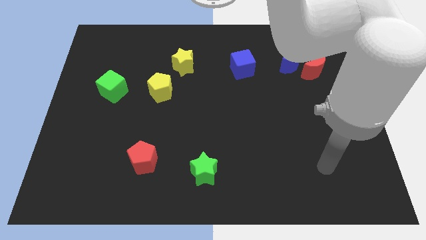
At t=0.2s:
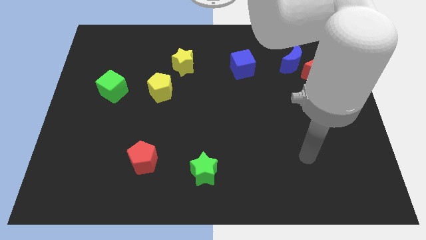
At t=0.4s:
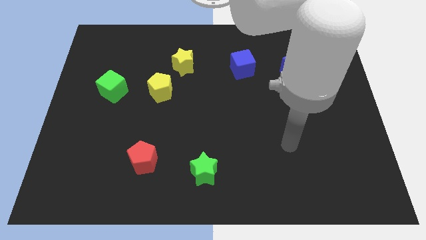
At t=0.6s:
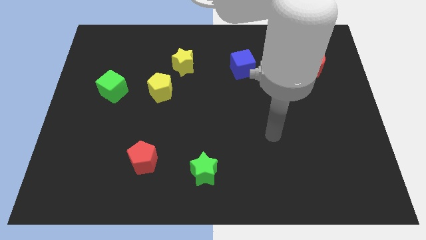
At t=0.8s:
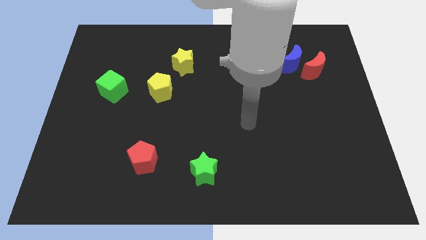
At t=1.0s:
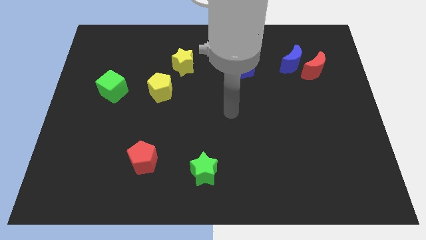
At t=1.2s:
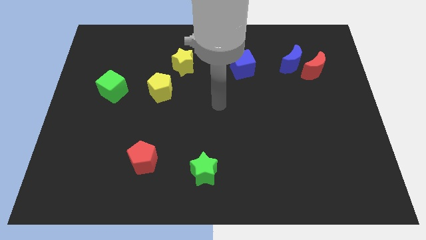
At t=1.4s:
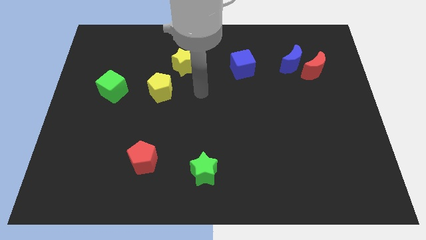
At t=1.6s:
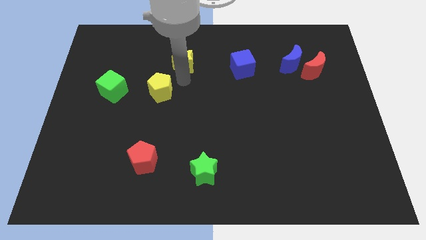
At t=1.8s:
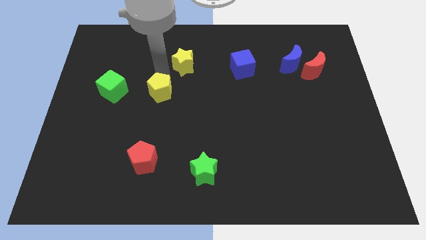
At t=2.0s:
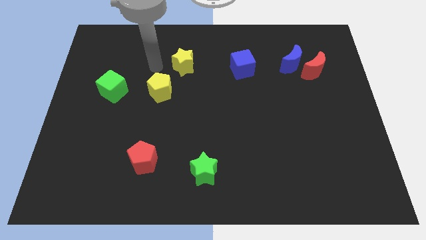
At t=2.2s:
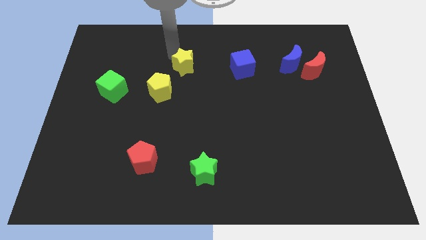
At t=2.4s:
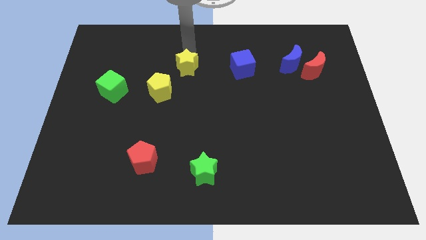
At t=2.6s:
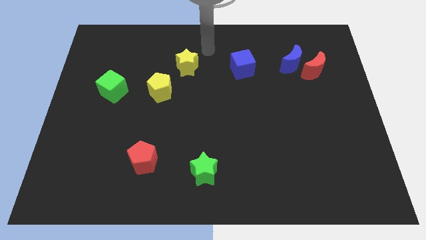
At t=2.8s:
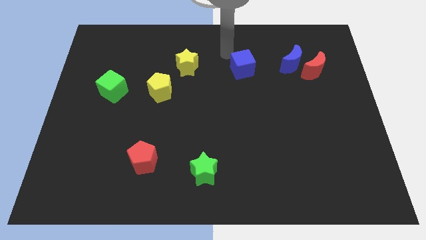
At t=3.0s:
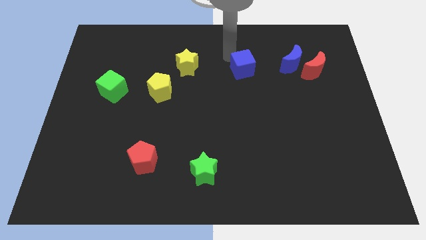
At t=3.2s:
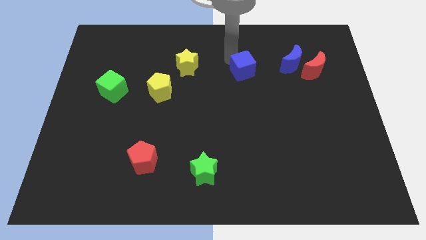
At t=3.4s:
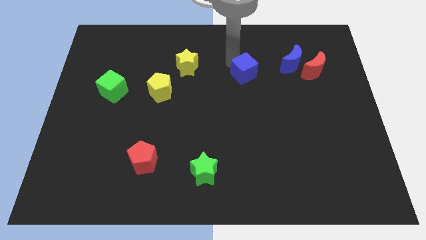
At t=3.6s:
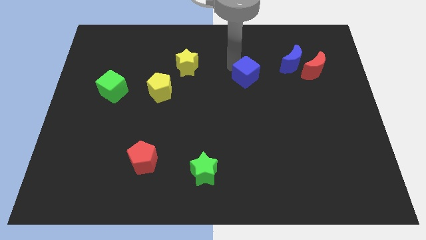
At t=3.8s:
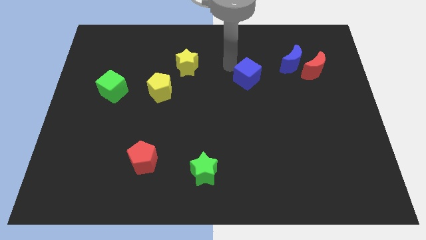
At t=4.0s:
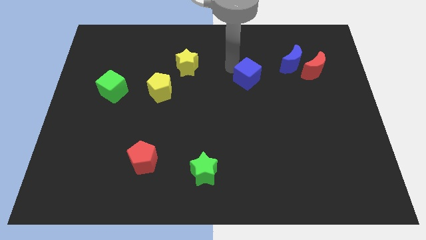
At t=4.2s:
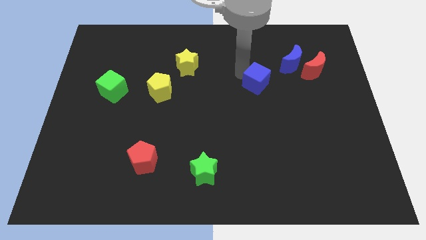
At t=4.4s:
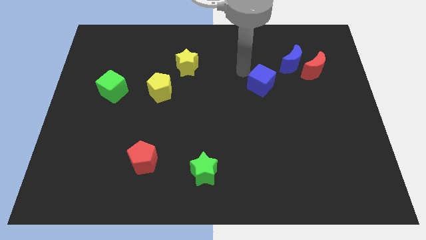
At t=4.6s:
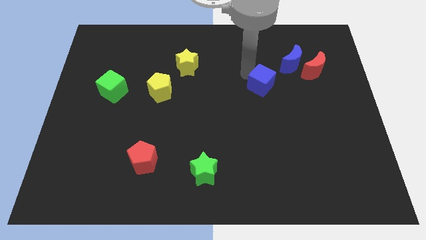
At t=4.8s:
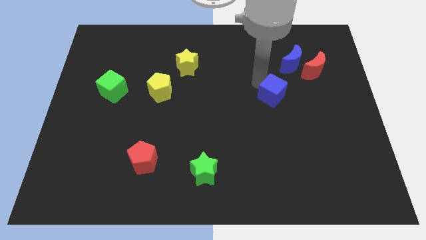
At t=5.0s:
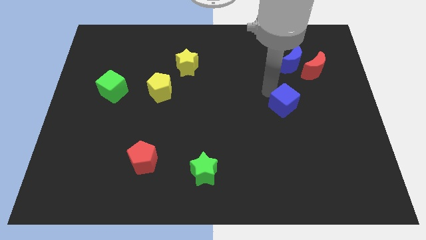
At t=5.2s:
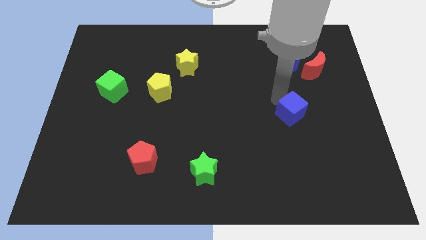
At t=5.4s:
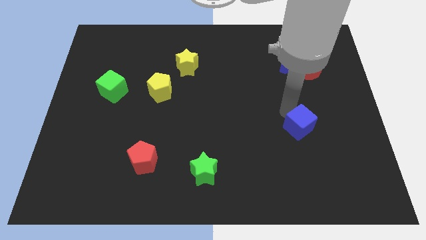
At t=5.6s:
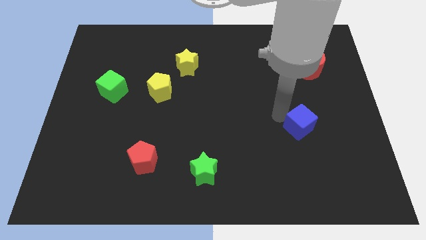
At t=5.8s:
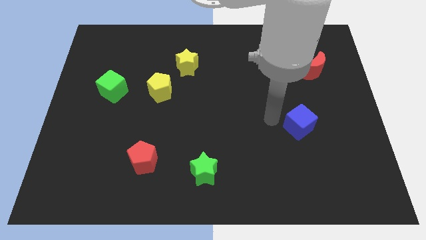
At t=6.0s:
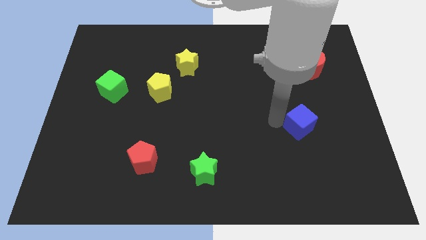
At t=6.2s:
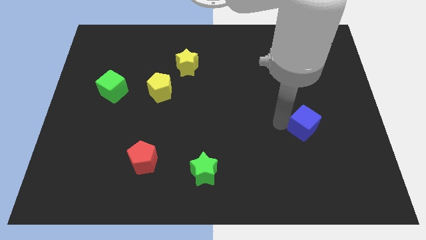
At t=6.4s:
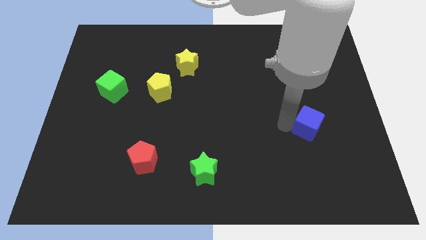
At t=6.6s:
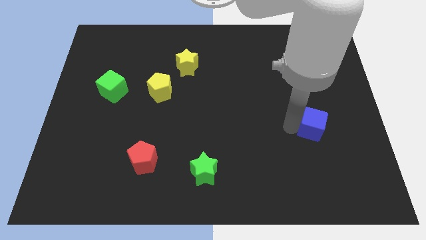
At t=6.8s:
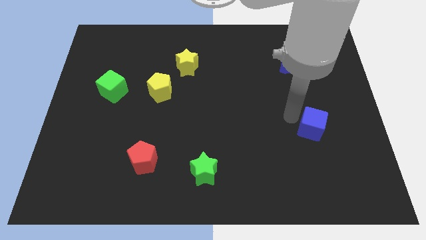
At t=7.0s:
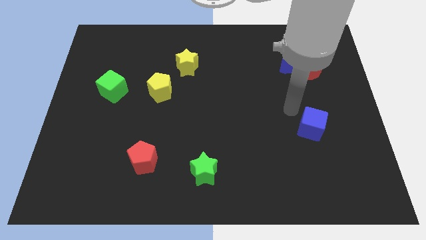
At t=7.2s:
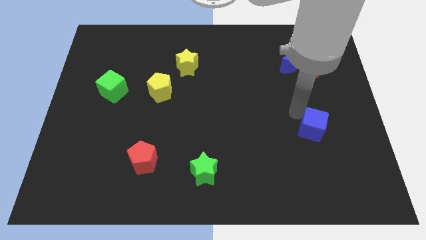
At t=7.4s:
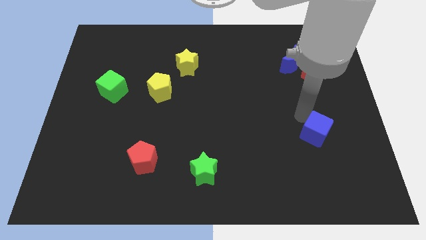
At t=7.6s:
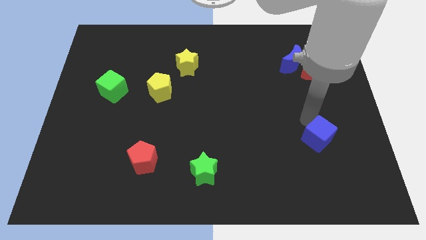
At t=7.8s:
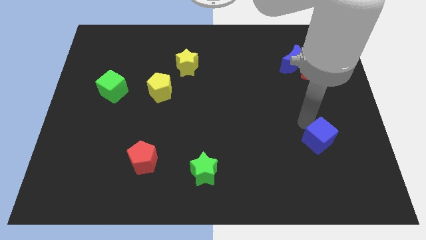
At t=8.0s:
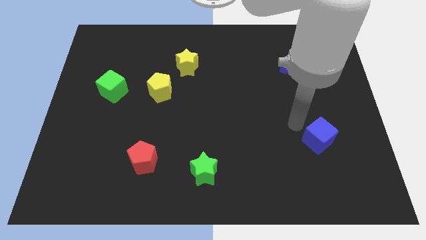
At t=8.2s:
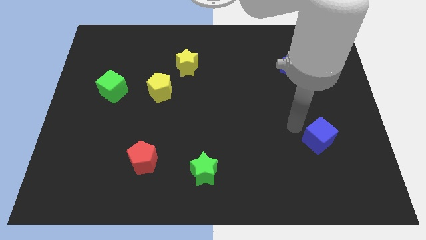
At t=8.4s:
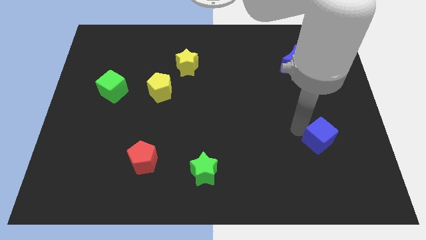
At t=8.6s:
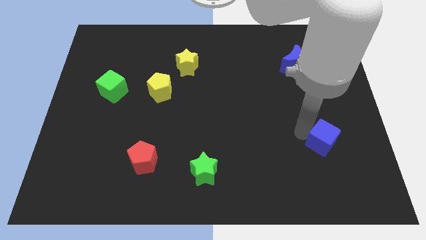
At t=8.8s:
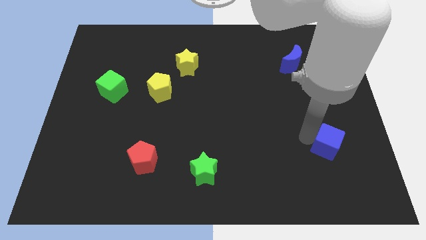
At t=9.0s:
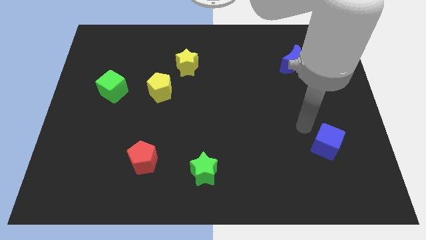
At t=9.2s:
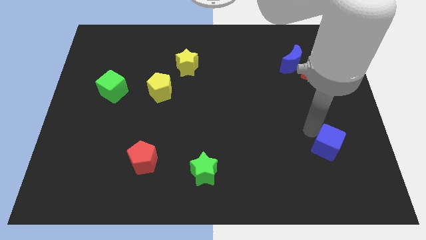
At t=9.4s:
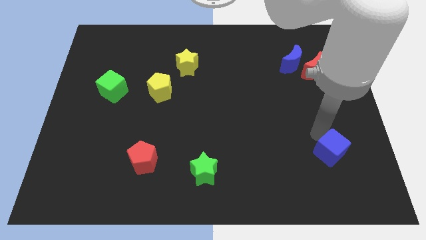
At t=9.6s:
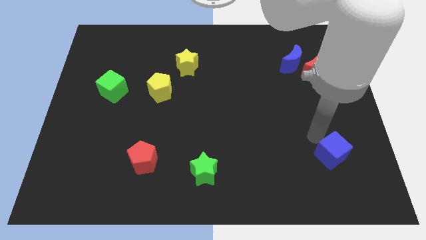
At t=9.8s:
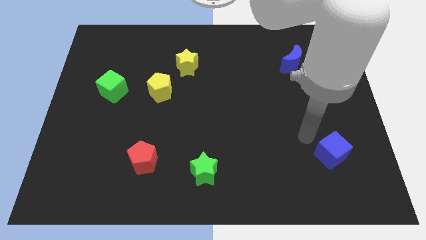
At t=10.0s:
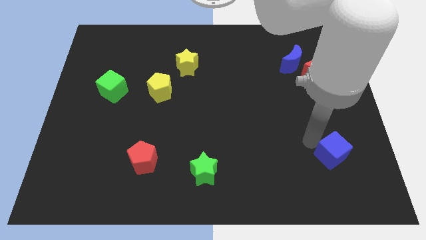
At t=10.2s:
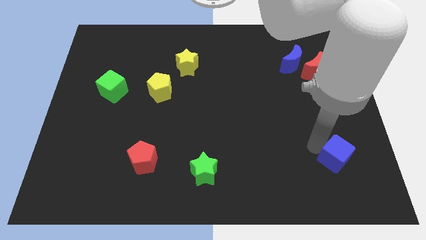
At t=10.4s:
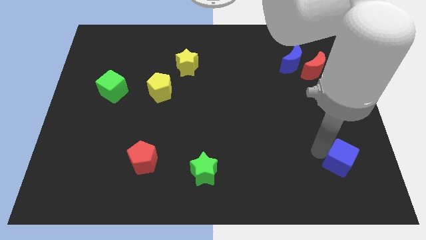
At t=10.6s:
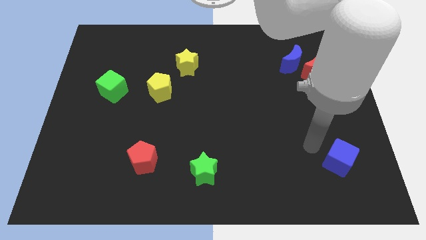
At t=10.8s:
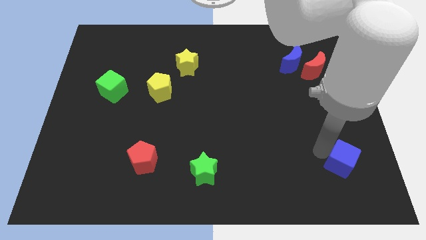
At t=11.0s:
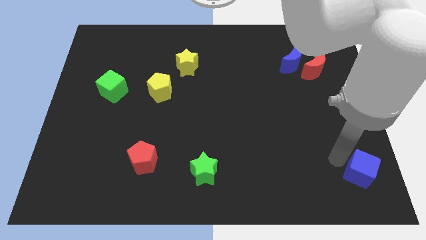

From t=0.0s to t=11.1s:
move the blue cube to the bottom right corner
